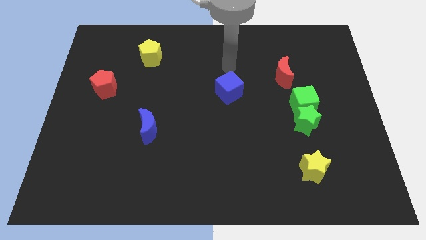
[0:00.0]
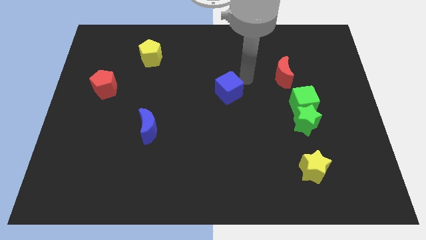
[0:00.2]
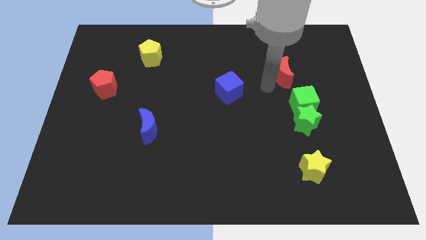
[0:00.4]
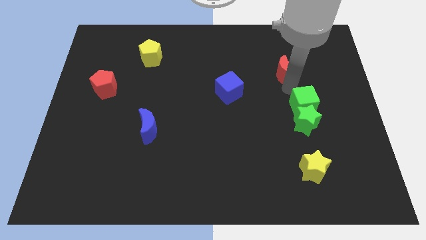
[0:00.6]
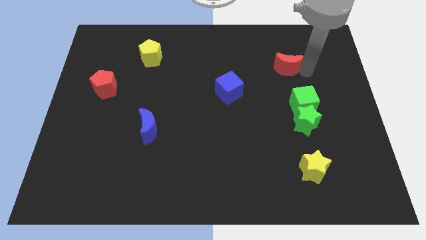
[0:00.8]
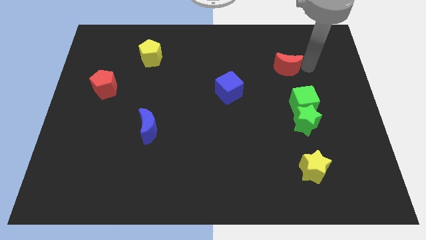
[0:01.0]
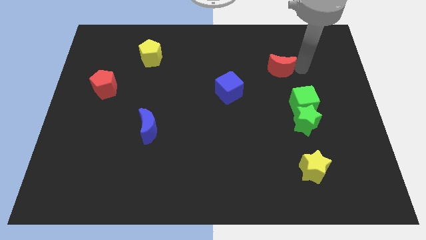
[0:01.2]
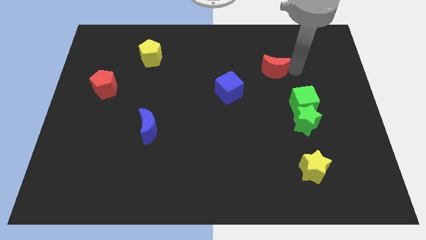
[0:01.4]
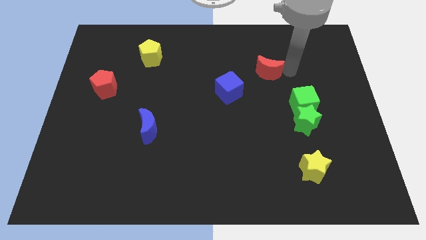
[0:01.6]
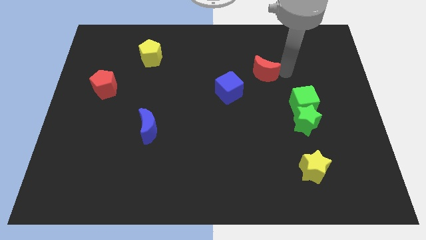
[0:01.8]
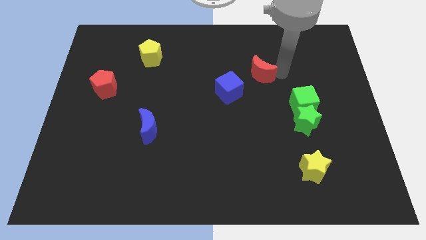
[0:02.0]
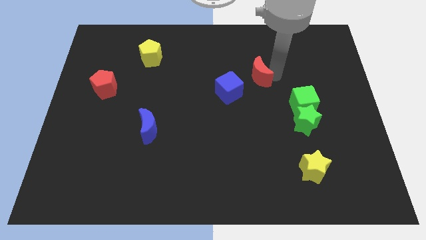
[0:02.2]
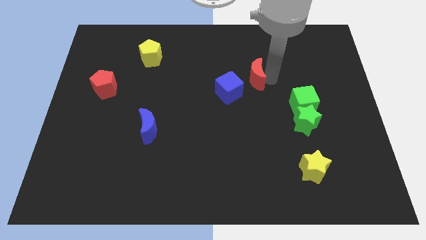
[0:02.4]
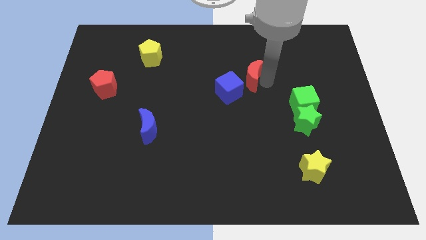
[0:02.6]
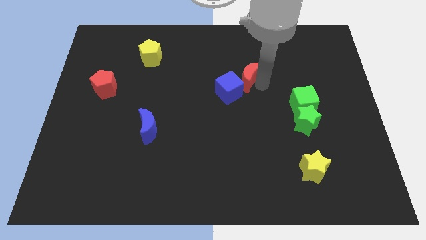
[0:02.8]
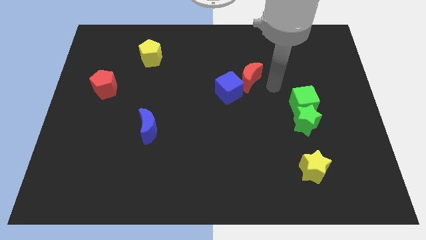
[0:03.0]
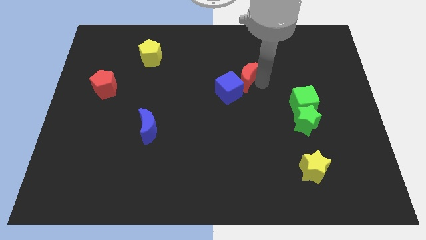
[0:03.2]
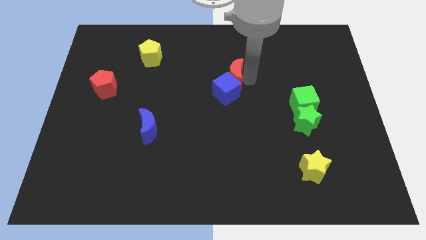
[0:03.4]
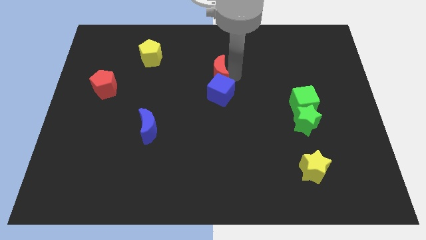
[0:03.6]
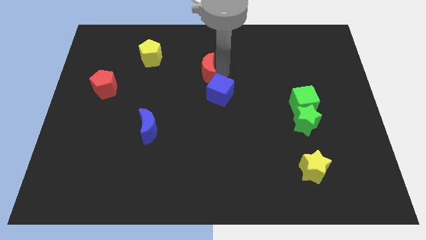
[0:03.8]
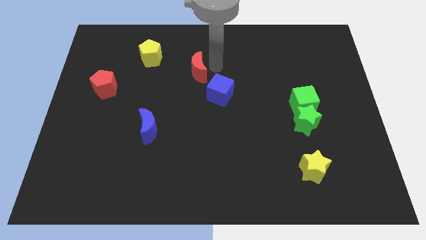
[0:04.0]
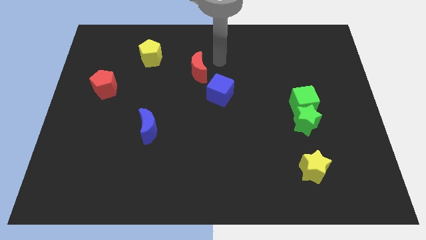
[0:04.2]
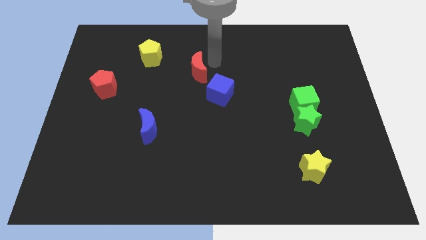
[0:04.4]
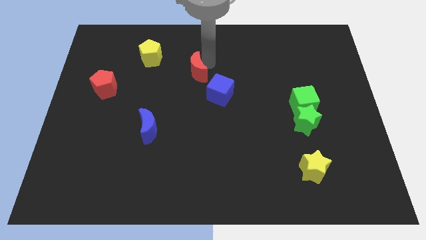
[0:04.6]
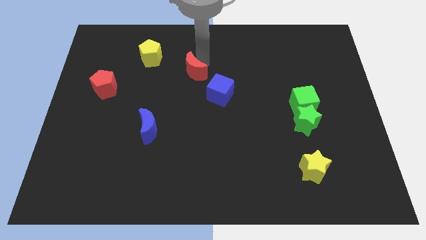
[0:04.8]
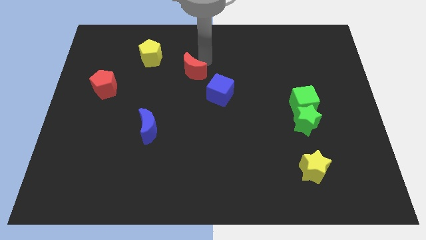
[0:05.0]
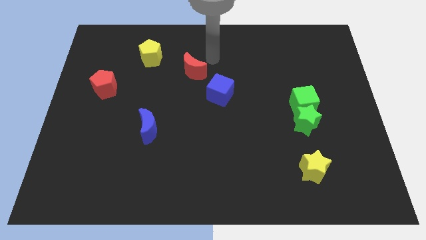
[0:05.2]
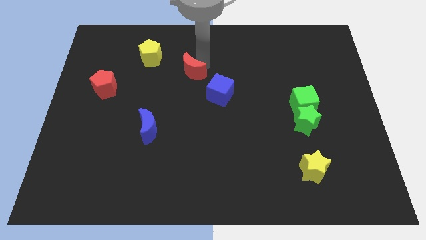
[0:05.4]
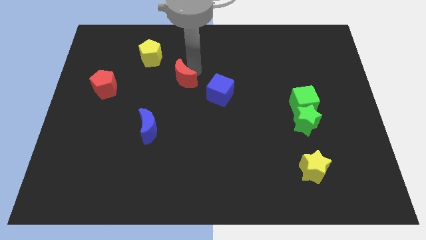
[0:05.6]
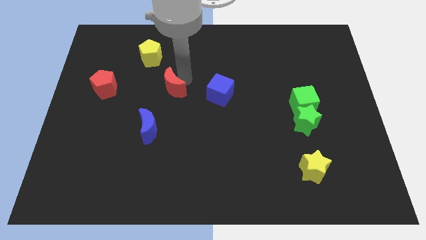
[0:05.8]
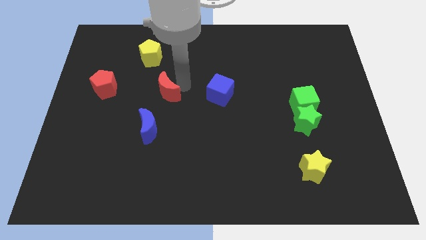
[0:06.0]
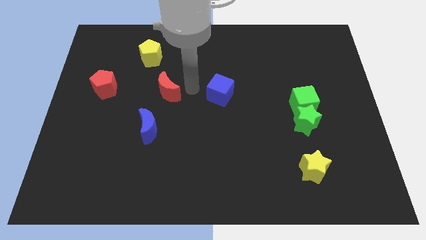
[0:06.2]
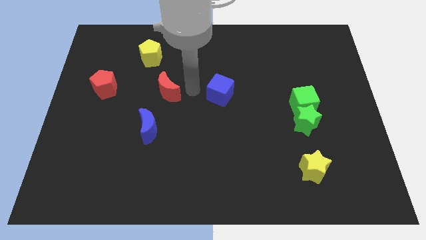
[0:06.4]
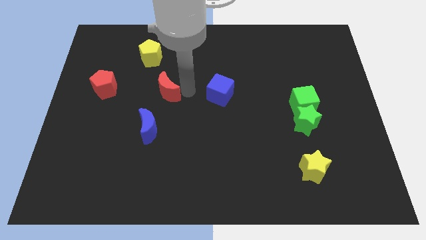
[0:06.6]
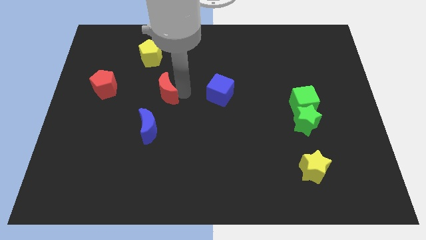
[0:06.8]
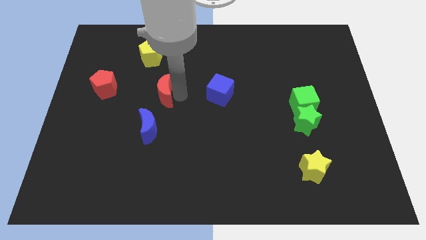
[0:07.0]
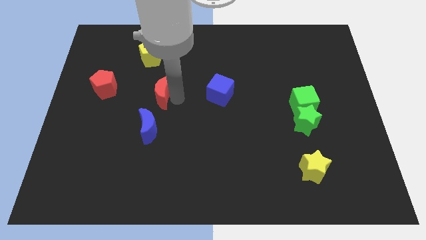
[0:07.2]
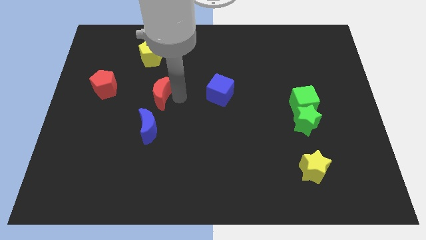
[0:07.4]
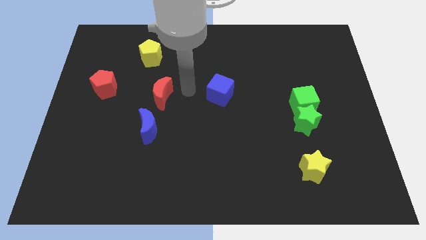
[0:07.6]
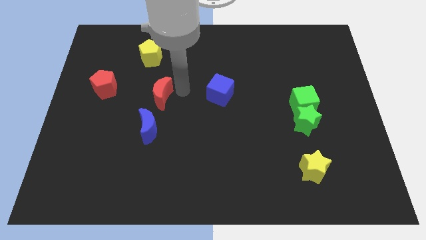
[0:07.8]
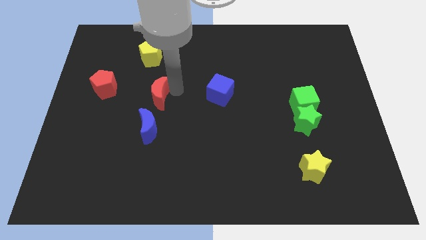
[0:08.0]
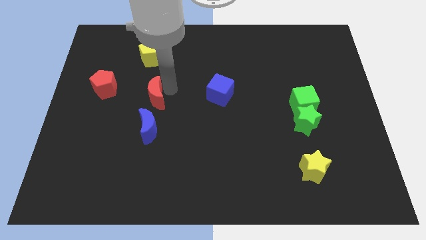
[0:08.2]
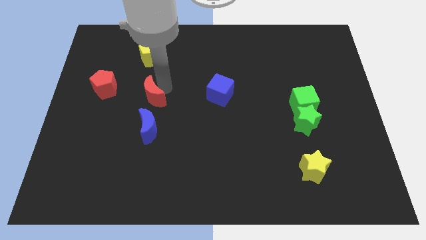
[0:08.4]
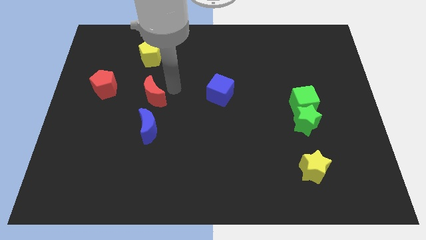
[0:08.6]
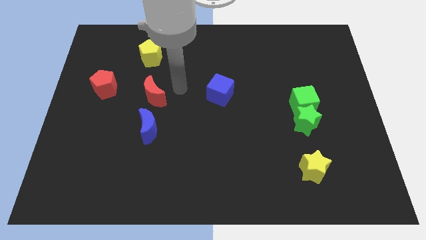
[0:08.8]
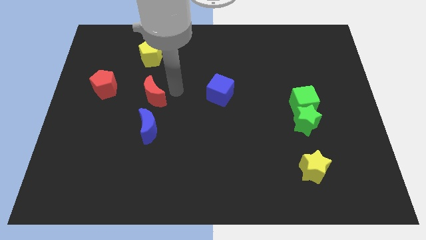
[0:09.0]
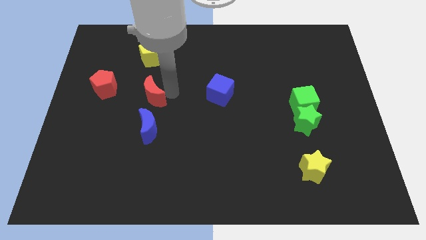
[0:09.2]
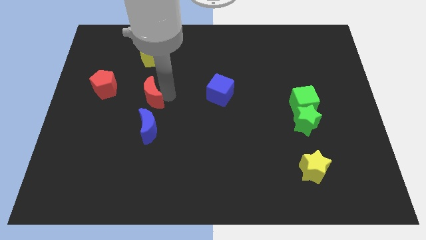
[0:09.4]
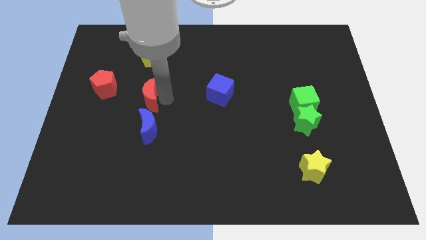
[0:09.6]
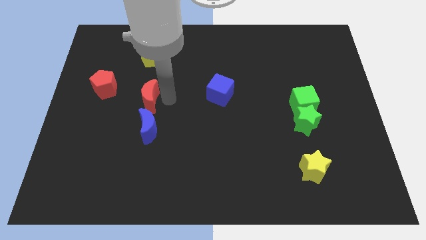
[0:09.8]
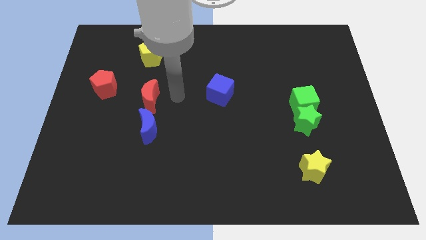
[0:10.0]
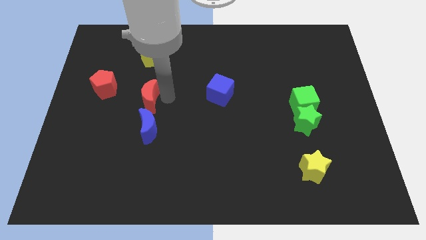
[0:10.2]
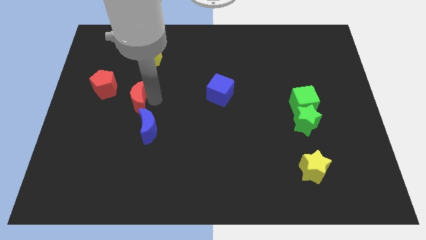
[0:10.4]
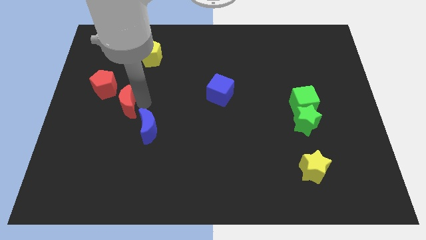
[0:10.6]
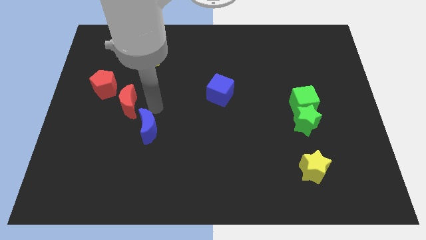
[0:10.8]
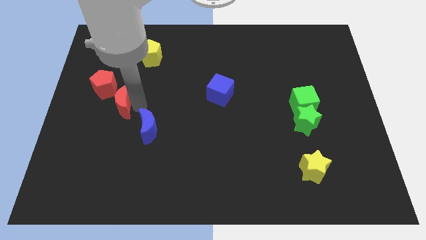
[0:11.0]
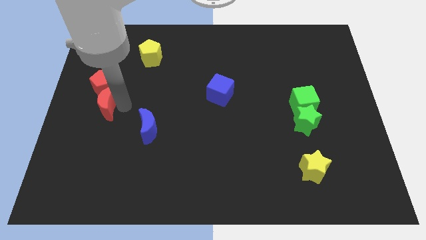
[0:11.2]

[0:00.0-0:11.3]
put the red moon to the left side

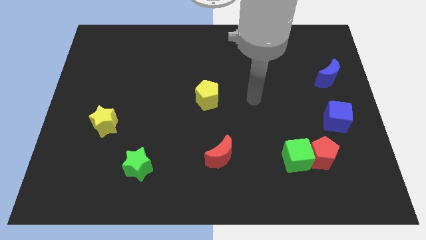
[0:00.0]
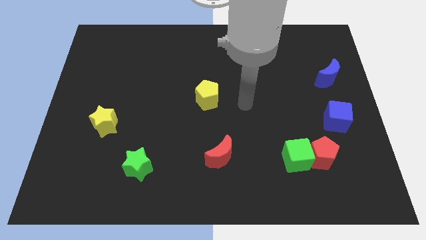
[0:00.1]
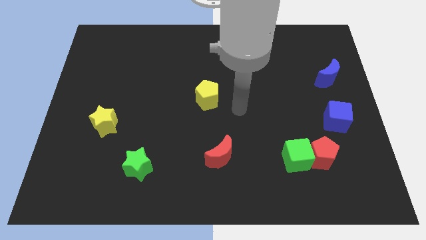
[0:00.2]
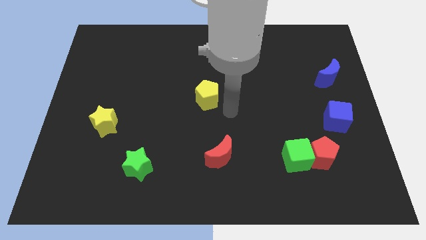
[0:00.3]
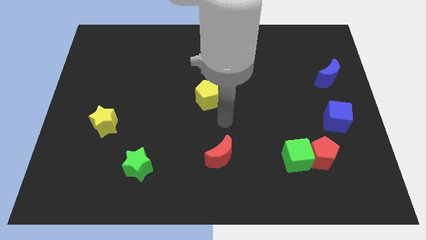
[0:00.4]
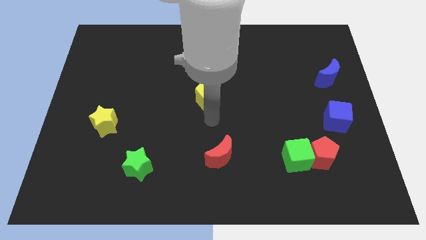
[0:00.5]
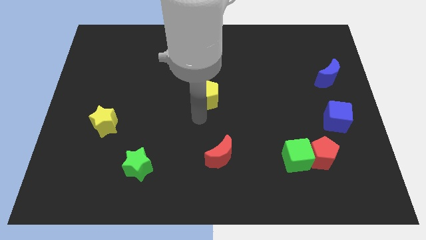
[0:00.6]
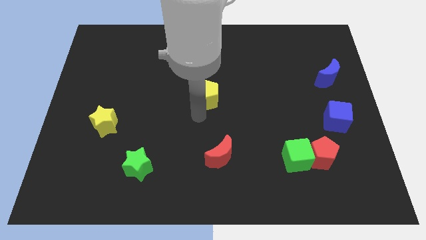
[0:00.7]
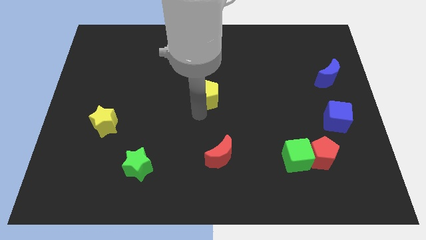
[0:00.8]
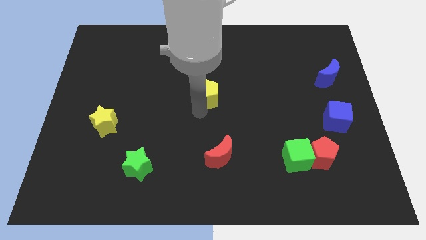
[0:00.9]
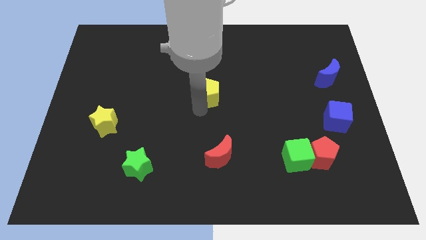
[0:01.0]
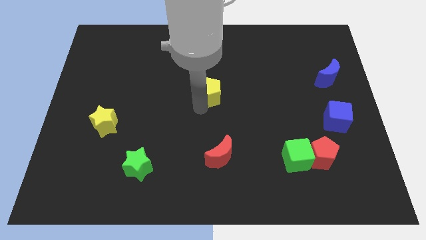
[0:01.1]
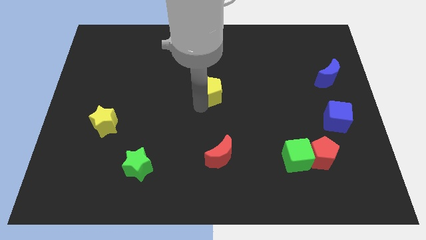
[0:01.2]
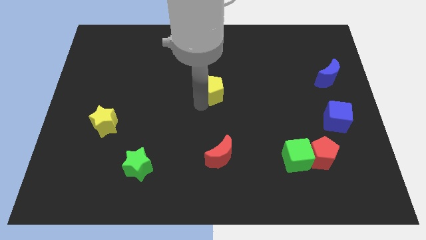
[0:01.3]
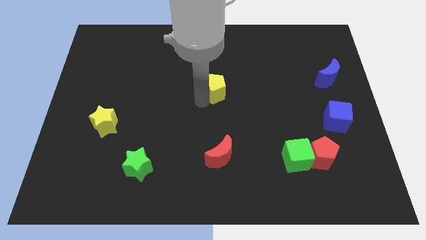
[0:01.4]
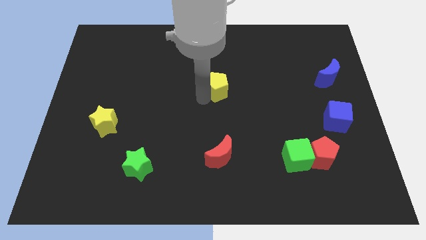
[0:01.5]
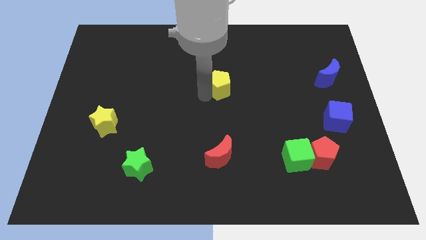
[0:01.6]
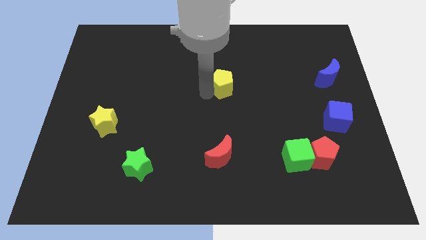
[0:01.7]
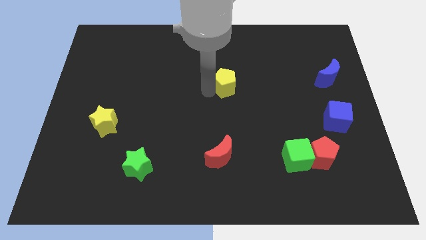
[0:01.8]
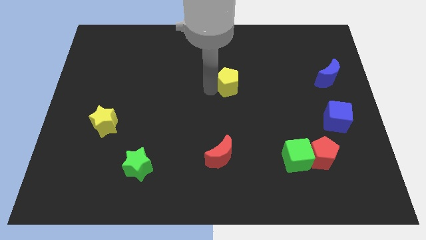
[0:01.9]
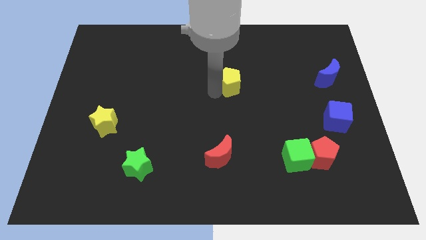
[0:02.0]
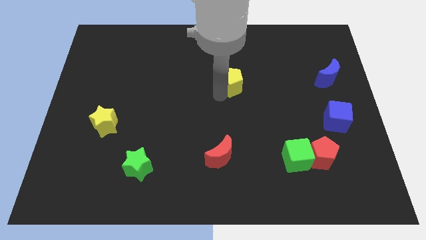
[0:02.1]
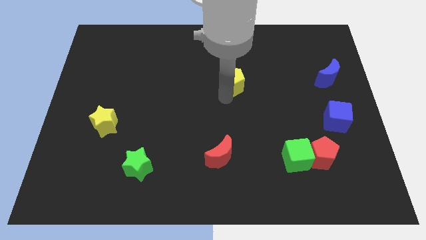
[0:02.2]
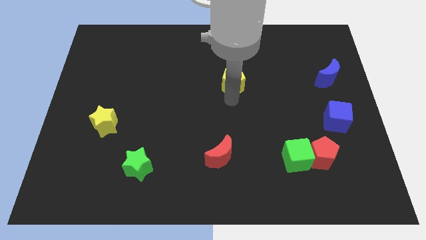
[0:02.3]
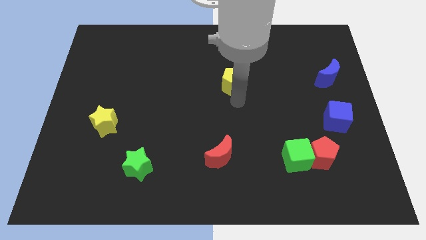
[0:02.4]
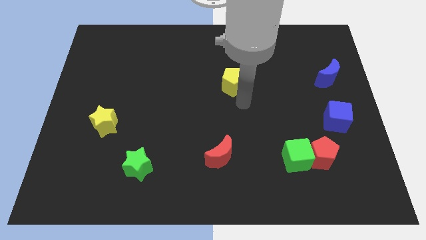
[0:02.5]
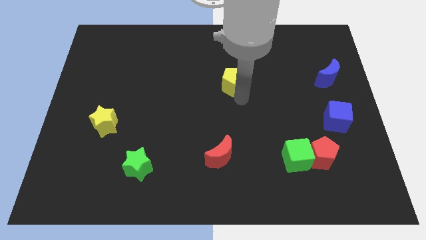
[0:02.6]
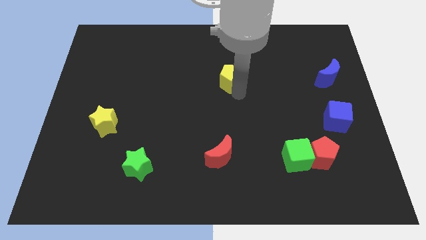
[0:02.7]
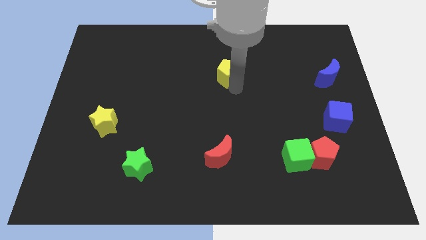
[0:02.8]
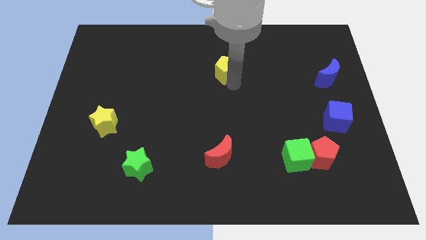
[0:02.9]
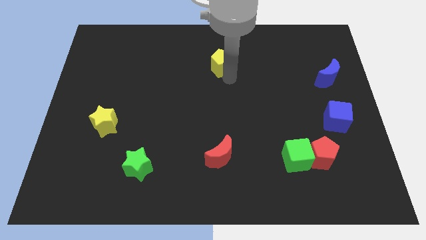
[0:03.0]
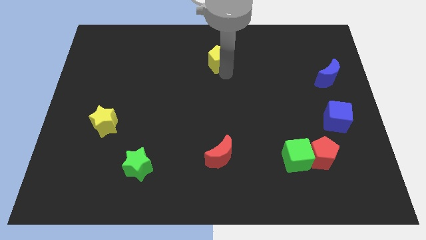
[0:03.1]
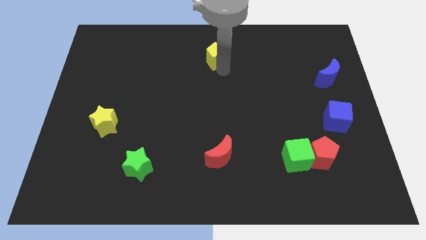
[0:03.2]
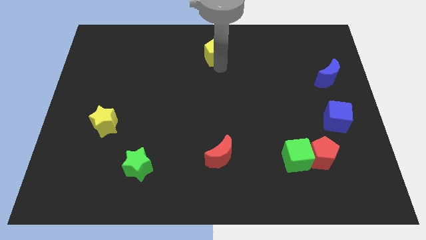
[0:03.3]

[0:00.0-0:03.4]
push the yellow pentagon to the towards your base
